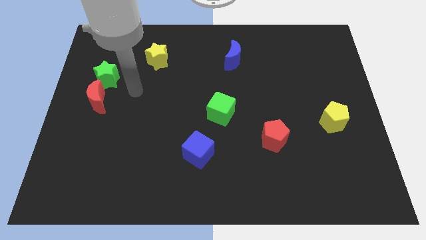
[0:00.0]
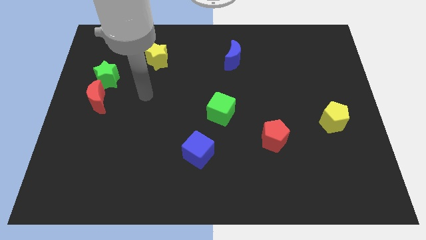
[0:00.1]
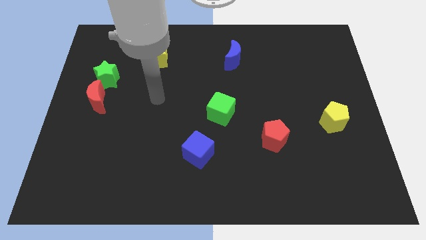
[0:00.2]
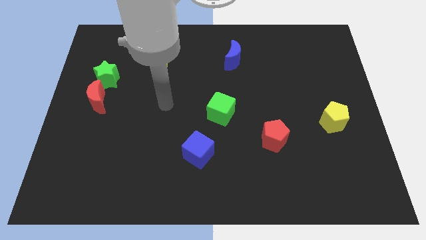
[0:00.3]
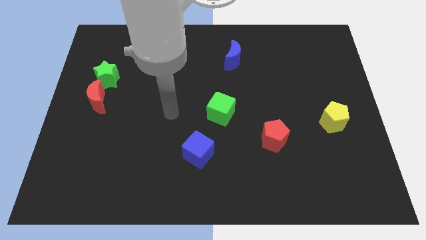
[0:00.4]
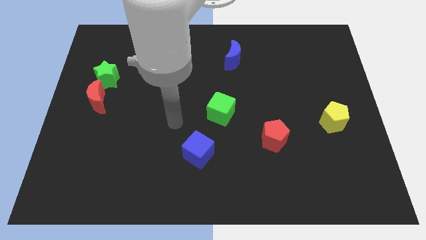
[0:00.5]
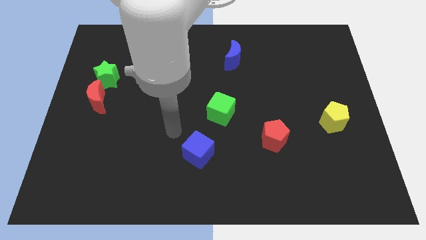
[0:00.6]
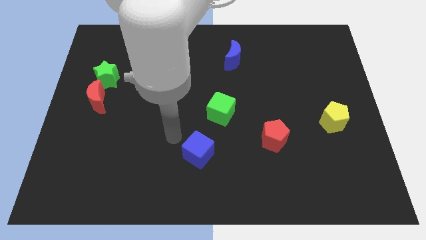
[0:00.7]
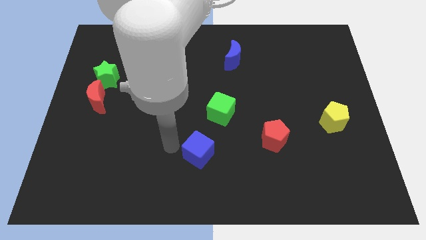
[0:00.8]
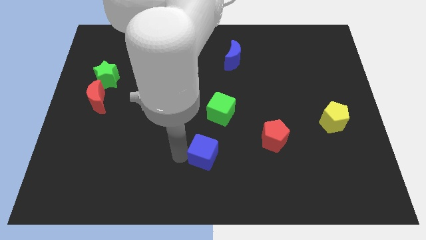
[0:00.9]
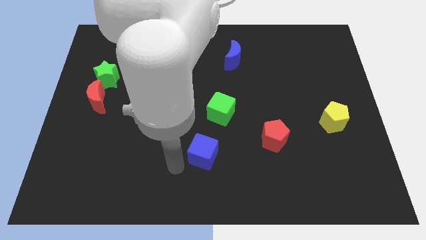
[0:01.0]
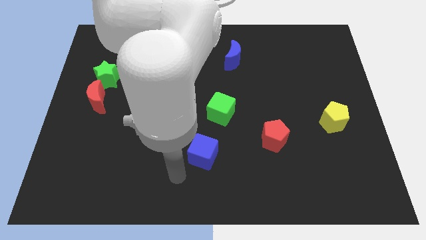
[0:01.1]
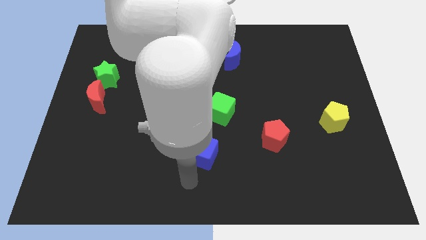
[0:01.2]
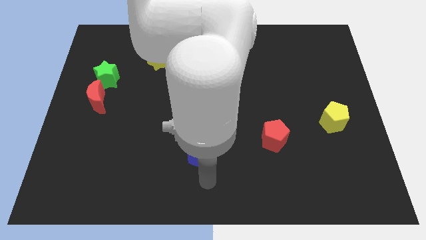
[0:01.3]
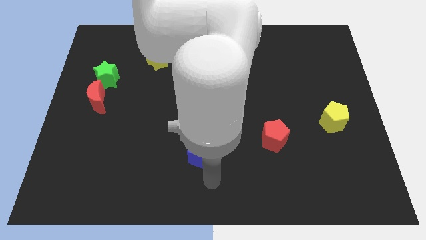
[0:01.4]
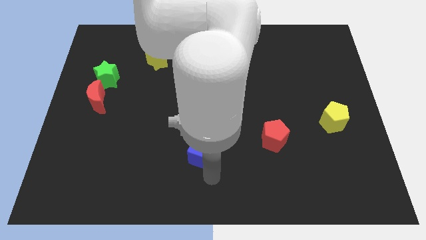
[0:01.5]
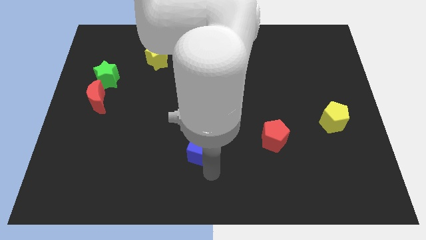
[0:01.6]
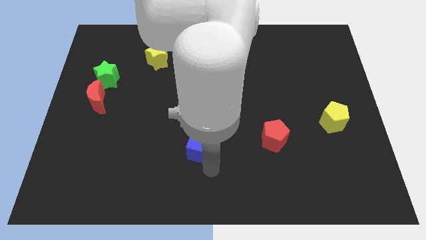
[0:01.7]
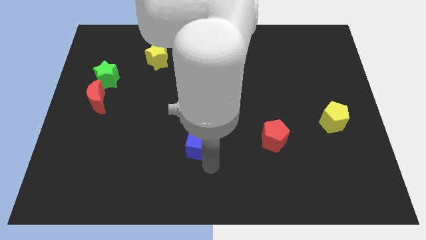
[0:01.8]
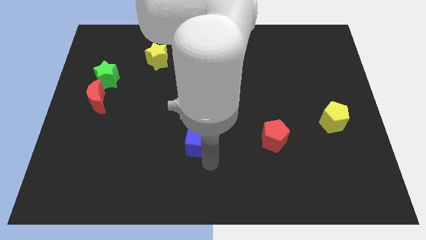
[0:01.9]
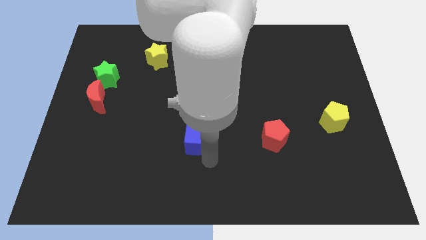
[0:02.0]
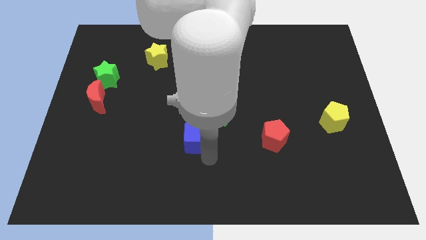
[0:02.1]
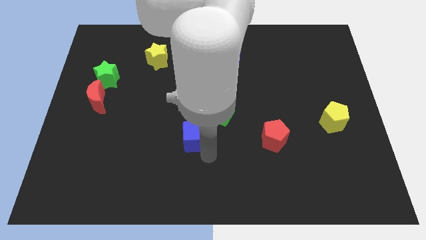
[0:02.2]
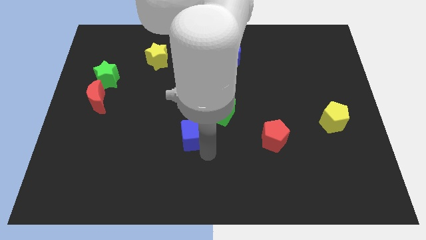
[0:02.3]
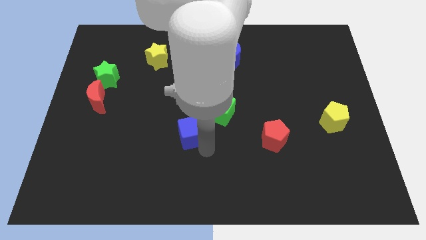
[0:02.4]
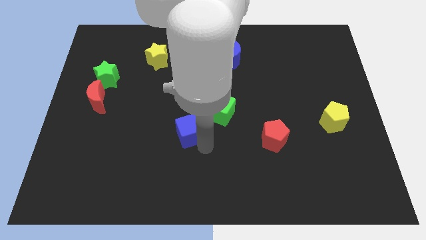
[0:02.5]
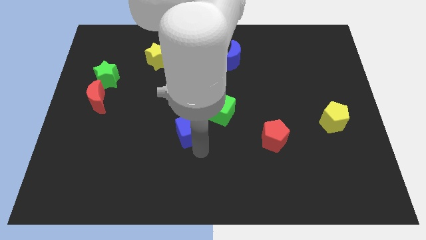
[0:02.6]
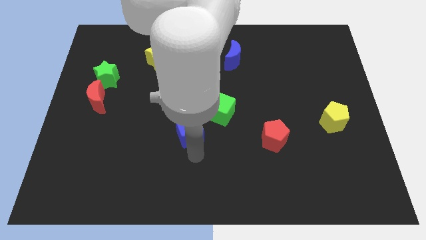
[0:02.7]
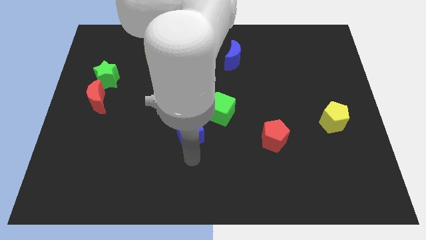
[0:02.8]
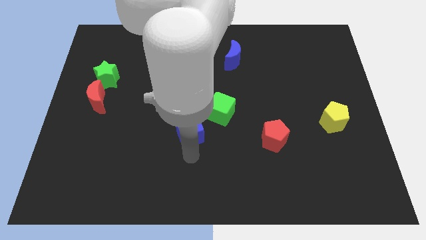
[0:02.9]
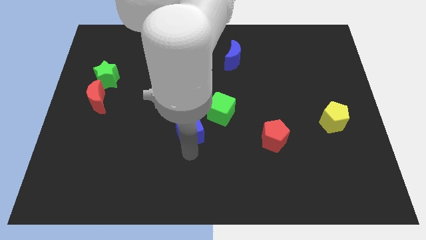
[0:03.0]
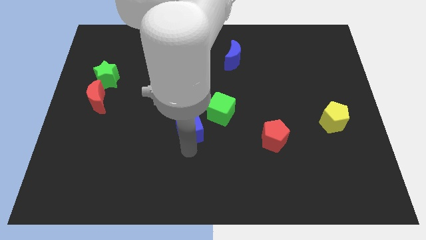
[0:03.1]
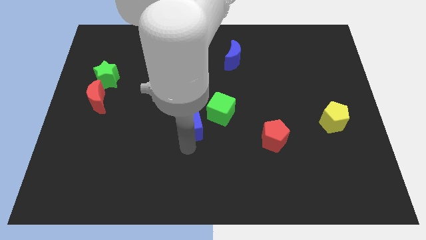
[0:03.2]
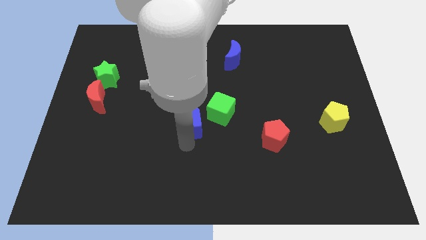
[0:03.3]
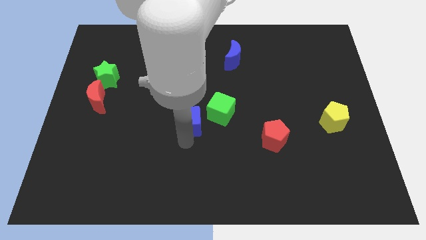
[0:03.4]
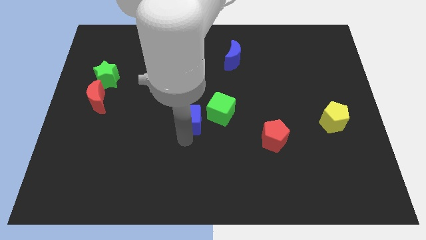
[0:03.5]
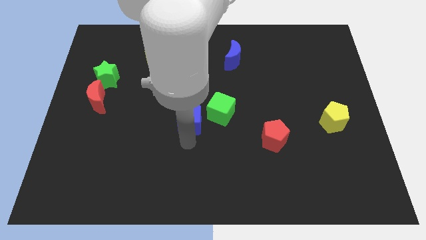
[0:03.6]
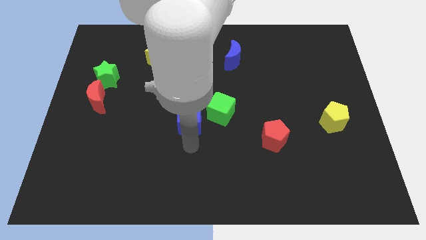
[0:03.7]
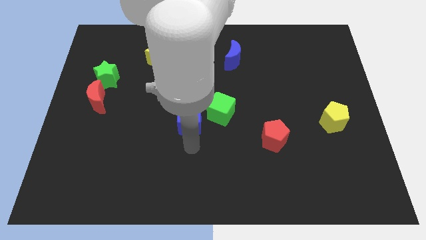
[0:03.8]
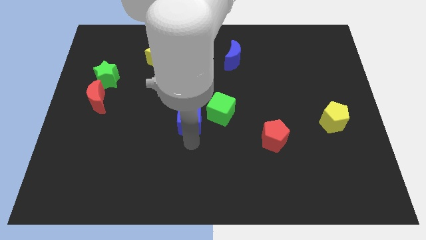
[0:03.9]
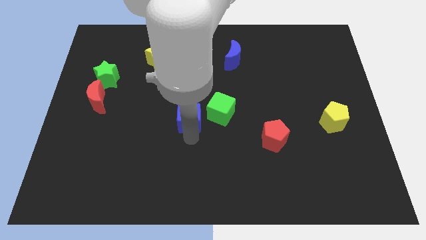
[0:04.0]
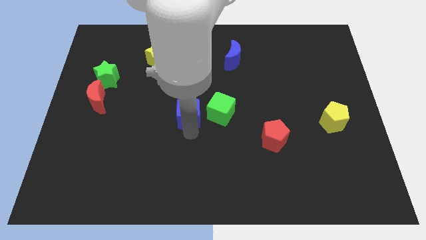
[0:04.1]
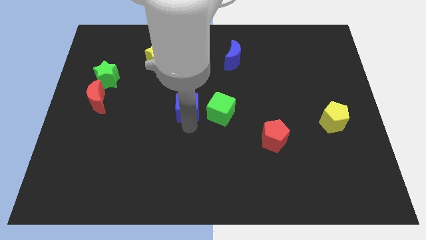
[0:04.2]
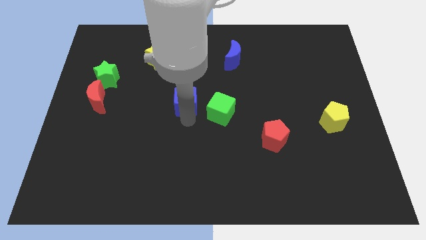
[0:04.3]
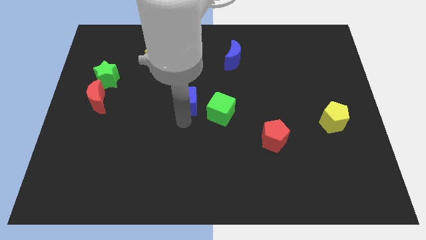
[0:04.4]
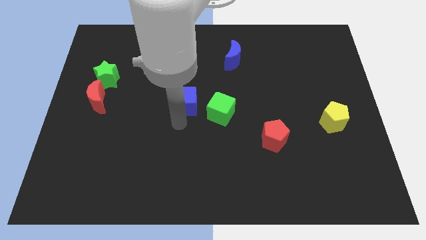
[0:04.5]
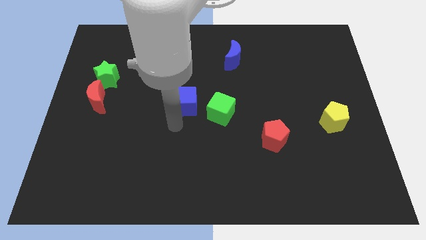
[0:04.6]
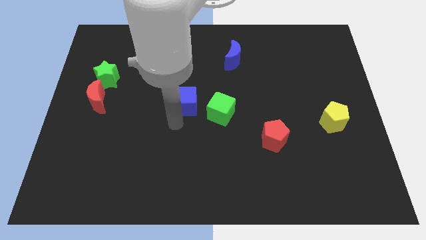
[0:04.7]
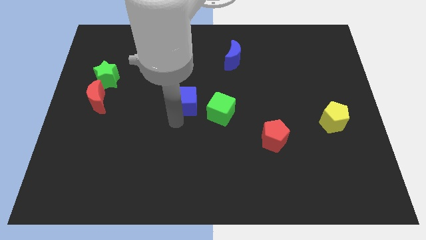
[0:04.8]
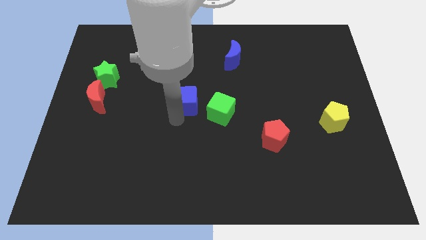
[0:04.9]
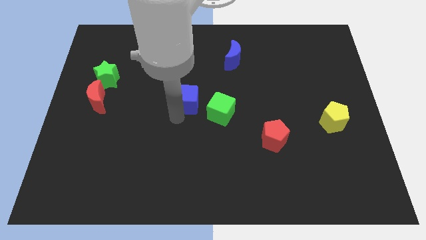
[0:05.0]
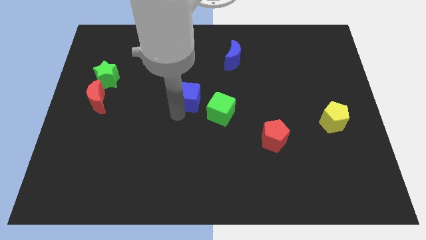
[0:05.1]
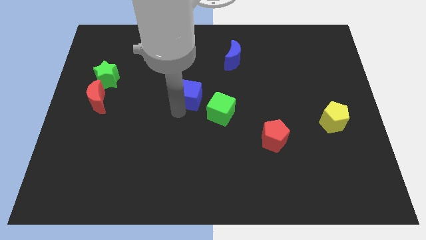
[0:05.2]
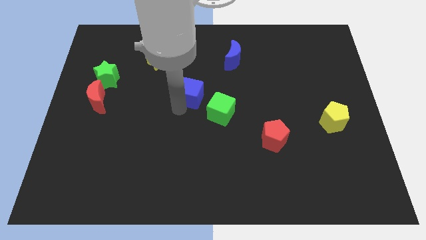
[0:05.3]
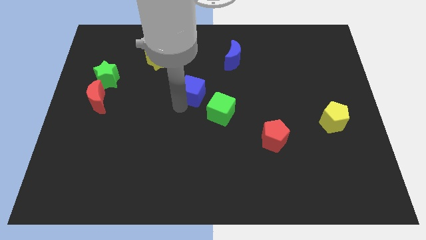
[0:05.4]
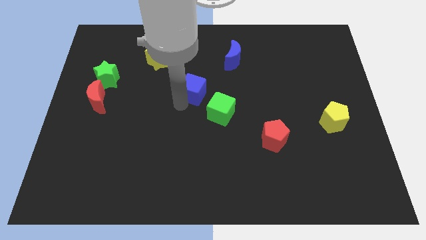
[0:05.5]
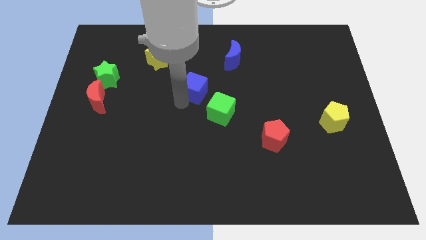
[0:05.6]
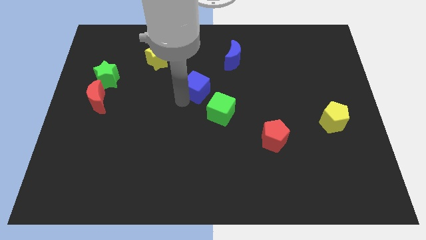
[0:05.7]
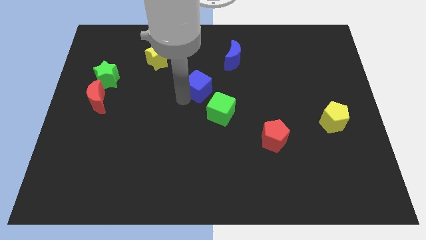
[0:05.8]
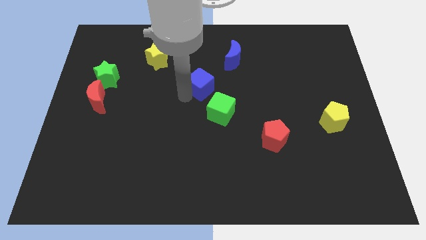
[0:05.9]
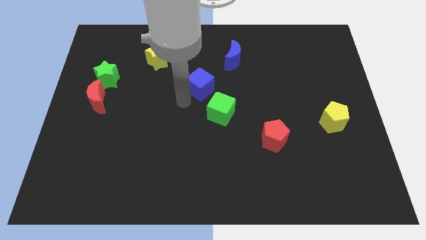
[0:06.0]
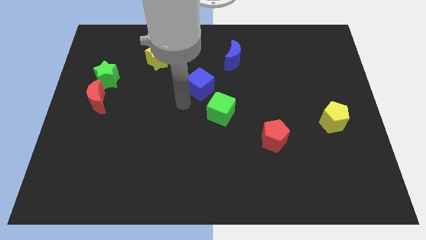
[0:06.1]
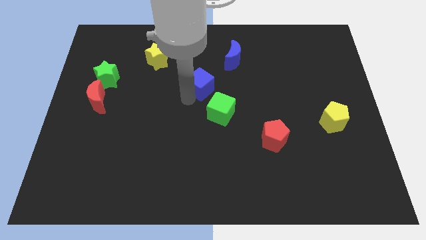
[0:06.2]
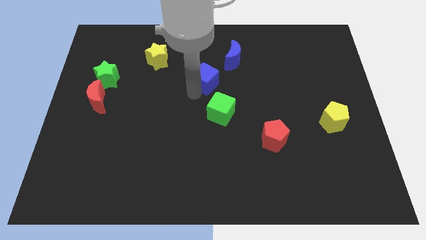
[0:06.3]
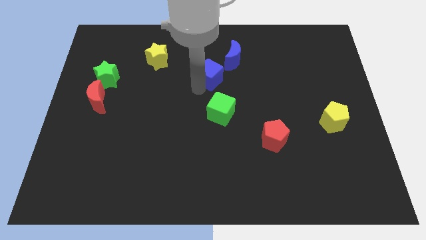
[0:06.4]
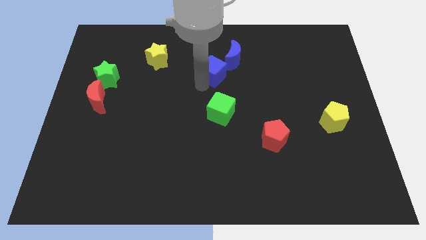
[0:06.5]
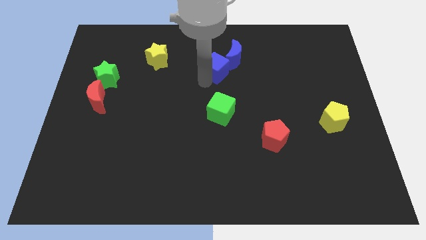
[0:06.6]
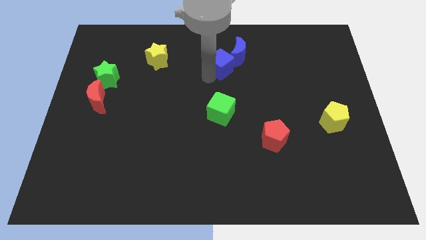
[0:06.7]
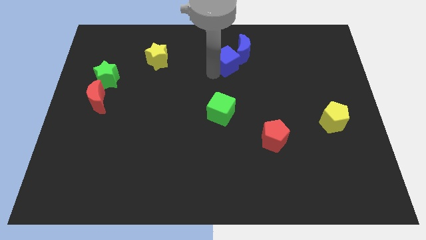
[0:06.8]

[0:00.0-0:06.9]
move the blue cube close to the blue moon
